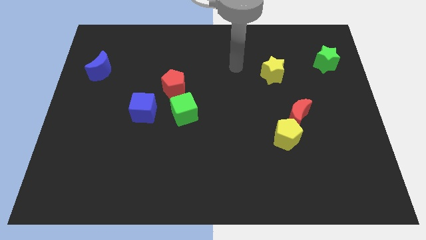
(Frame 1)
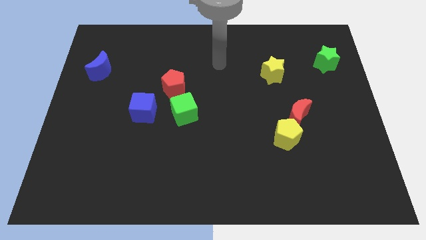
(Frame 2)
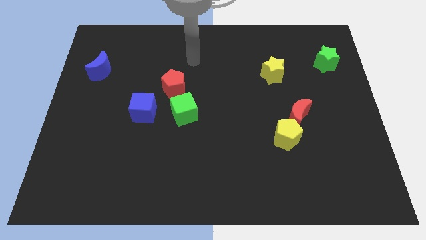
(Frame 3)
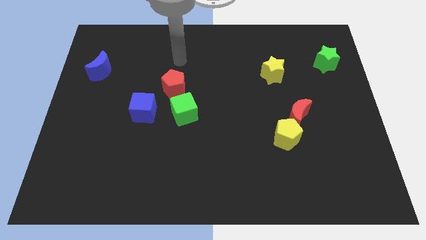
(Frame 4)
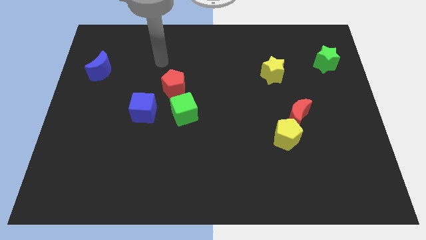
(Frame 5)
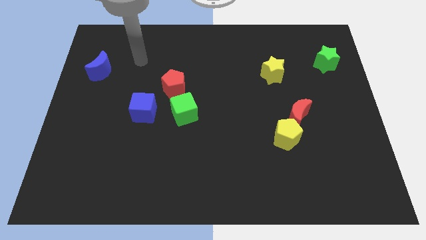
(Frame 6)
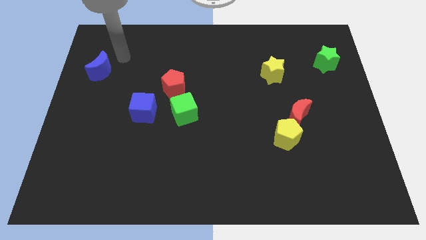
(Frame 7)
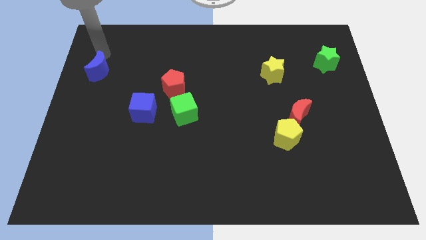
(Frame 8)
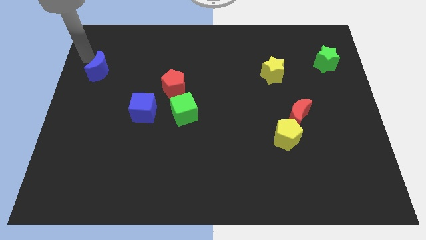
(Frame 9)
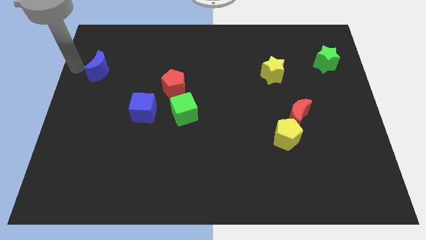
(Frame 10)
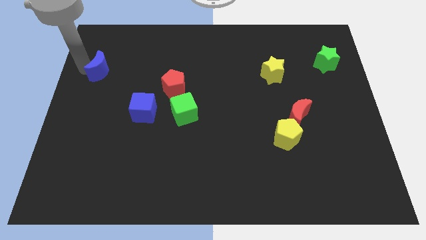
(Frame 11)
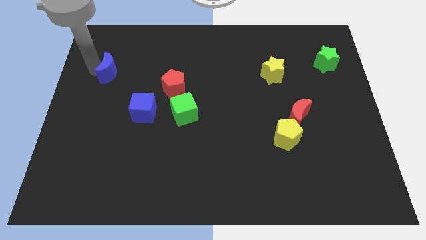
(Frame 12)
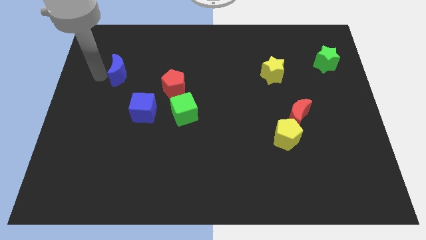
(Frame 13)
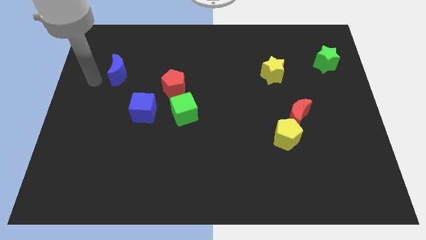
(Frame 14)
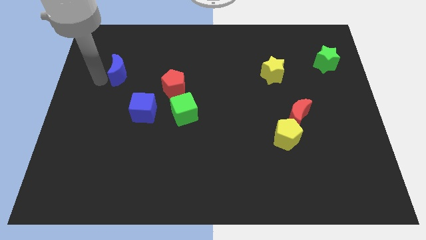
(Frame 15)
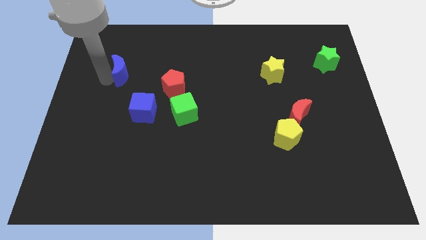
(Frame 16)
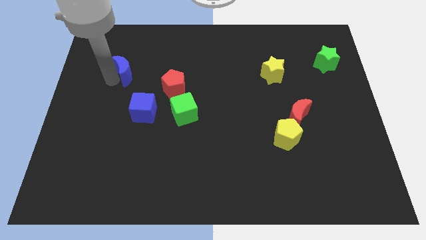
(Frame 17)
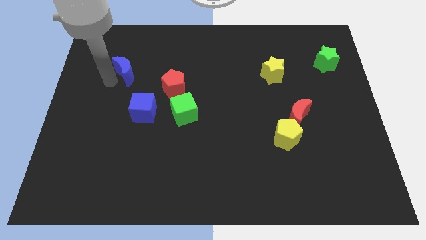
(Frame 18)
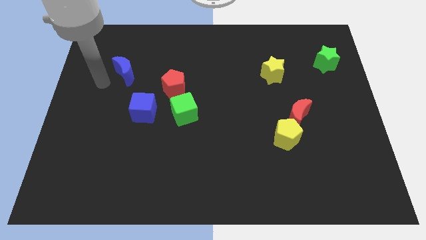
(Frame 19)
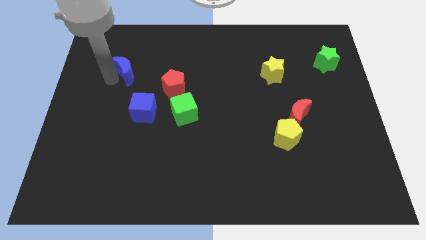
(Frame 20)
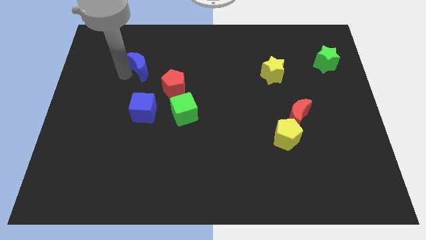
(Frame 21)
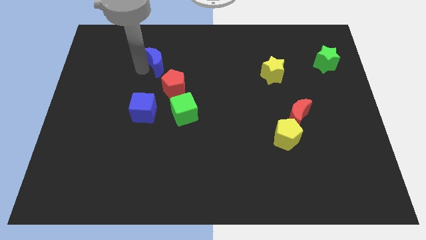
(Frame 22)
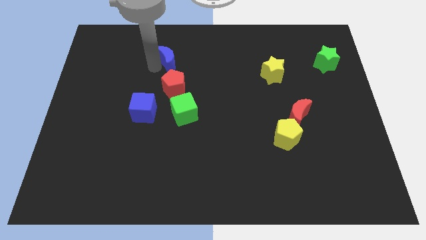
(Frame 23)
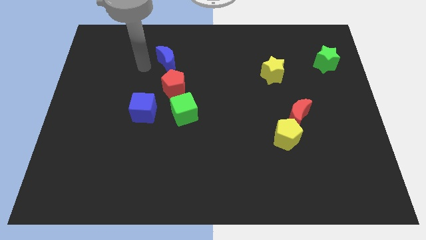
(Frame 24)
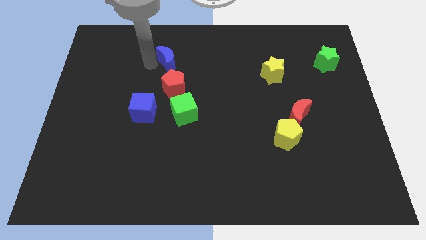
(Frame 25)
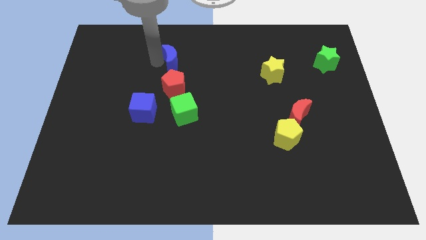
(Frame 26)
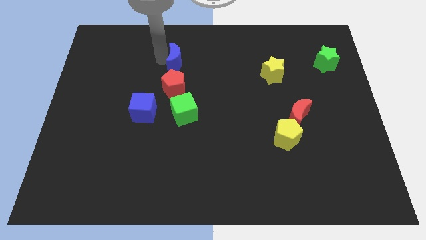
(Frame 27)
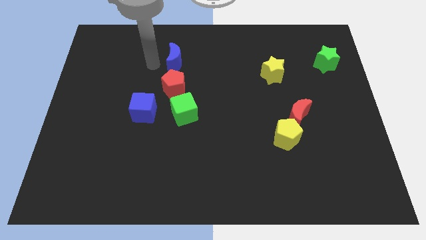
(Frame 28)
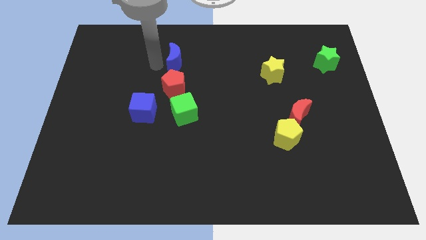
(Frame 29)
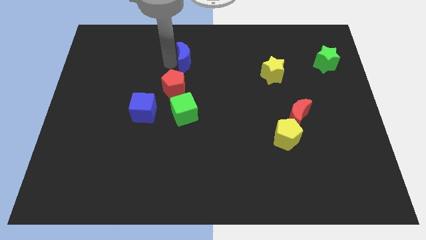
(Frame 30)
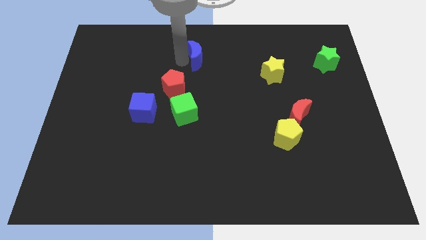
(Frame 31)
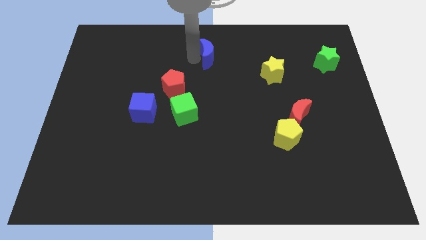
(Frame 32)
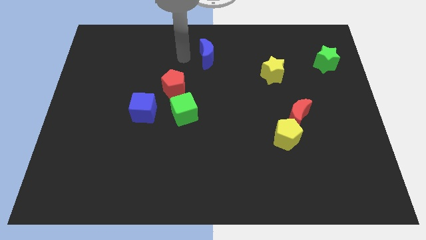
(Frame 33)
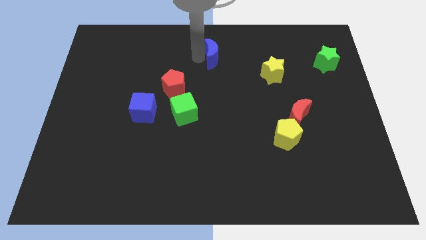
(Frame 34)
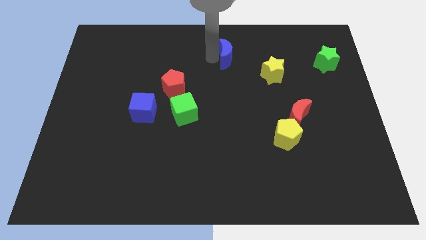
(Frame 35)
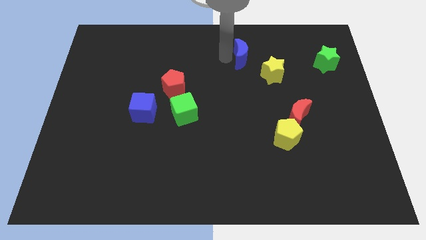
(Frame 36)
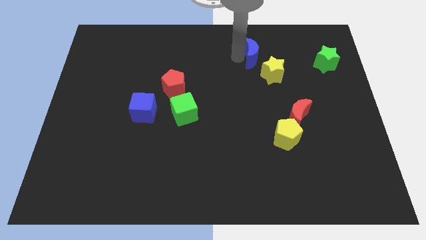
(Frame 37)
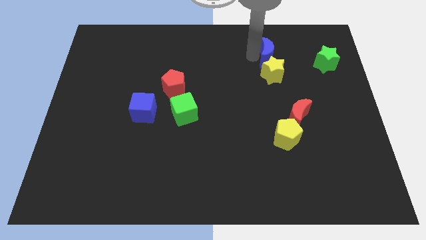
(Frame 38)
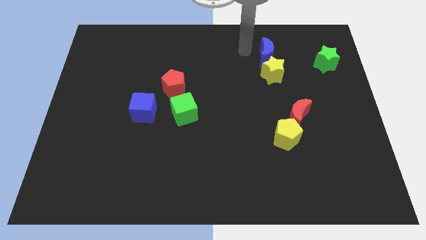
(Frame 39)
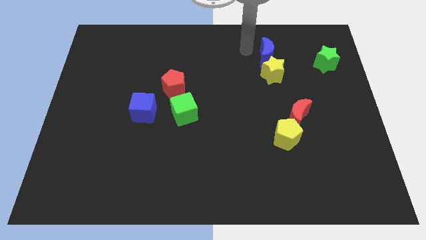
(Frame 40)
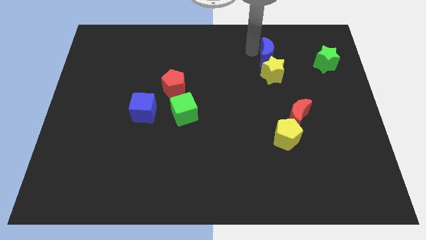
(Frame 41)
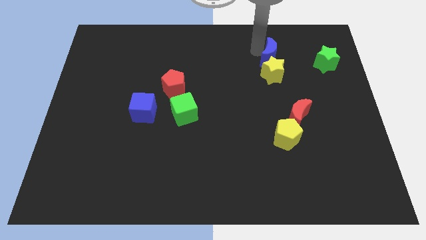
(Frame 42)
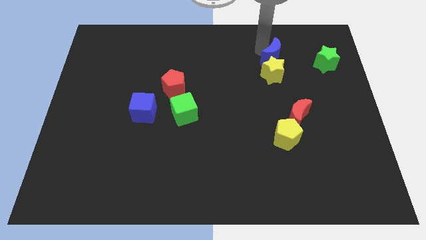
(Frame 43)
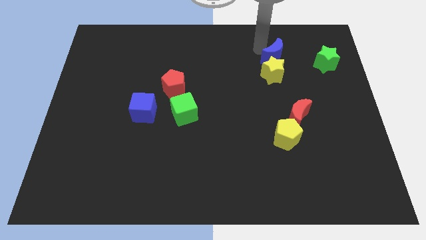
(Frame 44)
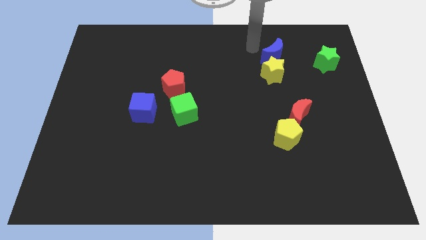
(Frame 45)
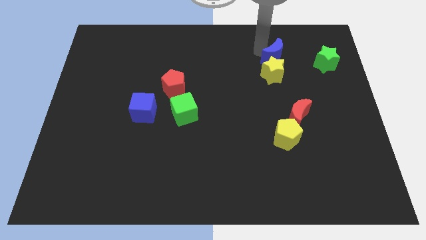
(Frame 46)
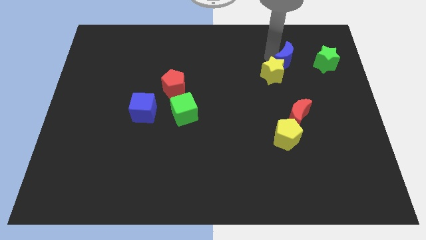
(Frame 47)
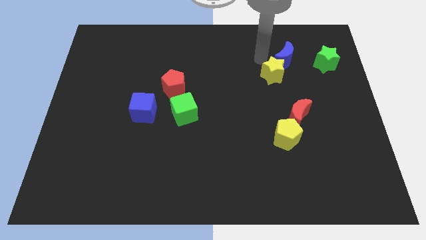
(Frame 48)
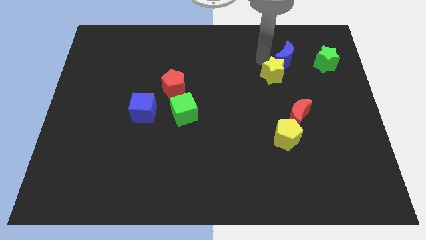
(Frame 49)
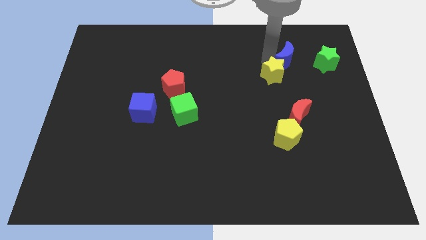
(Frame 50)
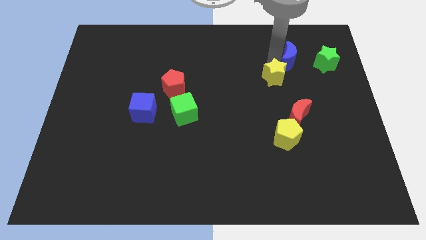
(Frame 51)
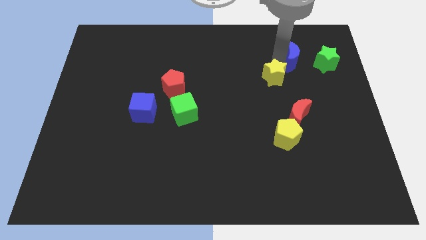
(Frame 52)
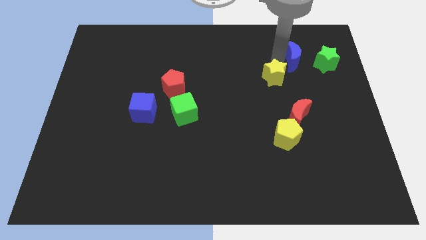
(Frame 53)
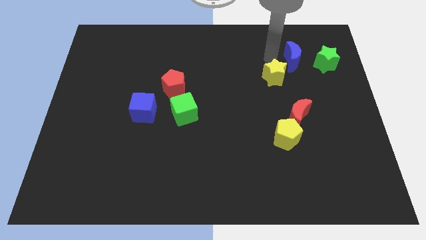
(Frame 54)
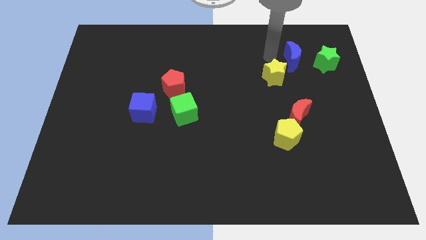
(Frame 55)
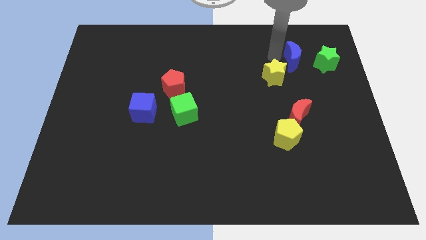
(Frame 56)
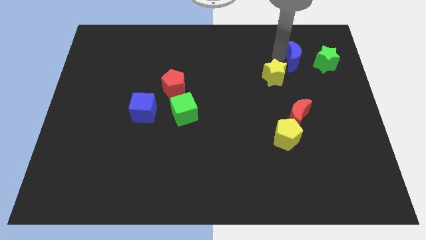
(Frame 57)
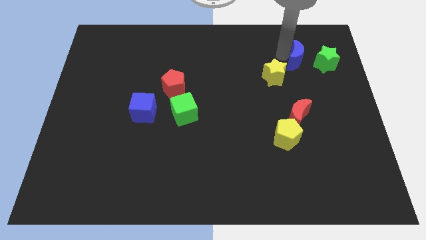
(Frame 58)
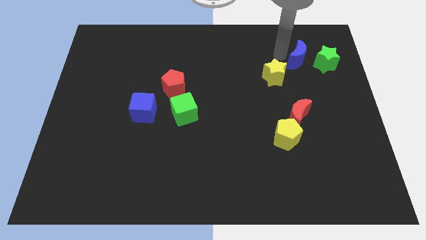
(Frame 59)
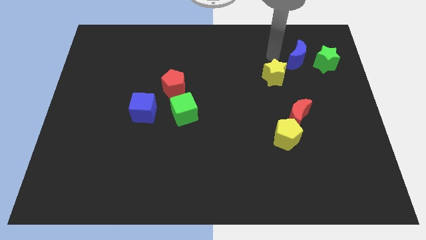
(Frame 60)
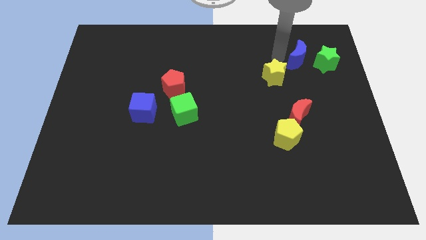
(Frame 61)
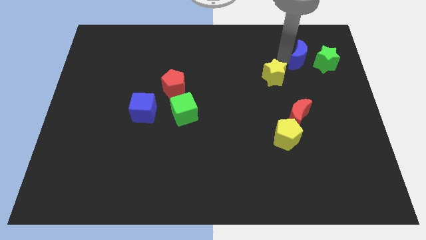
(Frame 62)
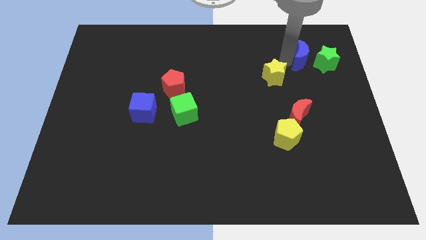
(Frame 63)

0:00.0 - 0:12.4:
move the blue moon towards the green star
